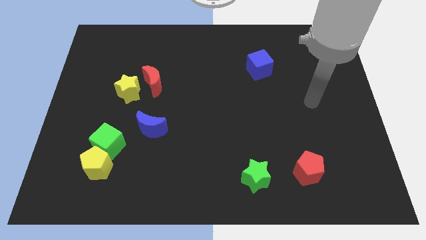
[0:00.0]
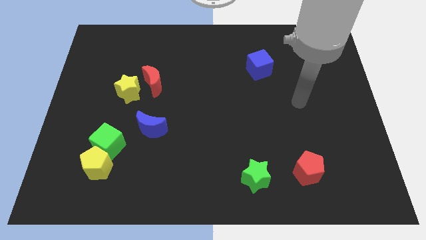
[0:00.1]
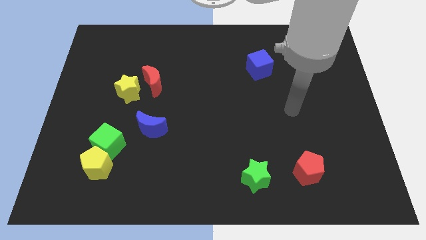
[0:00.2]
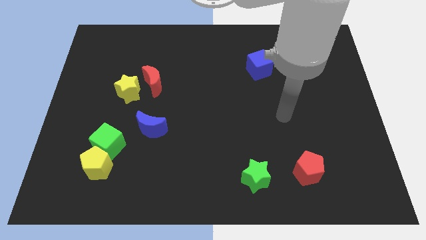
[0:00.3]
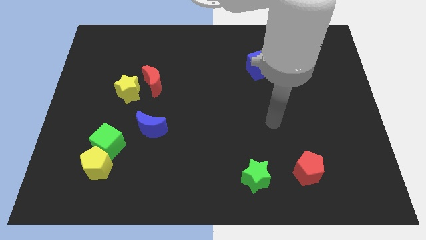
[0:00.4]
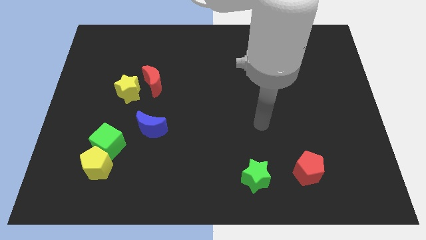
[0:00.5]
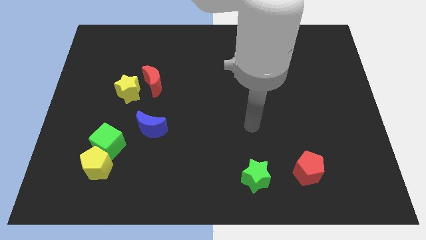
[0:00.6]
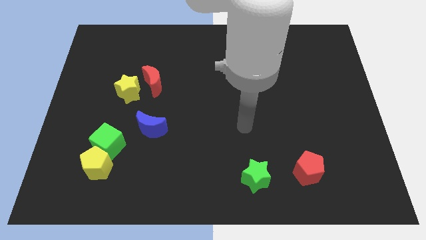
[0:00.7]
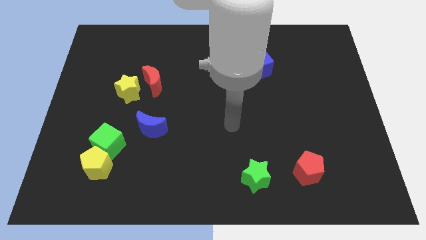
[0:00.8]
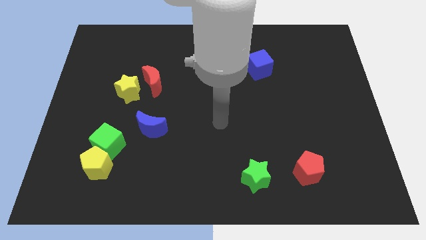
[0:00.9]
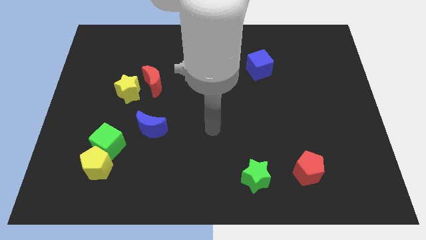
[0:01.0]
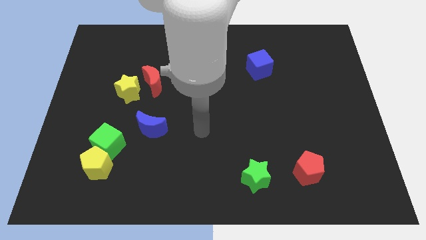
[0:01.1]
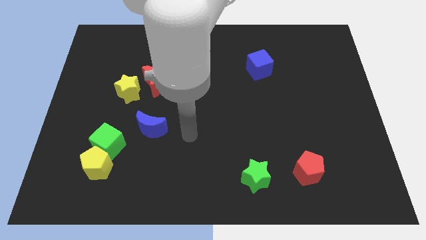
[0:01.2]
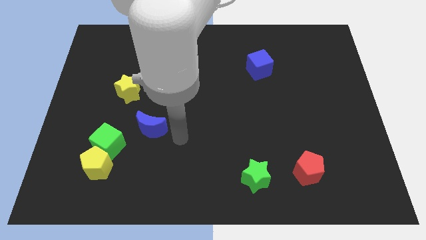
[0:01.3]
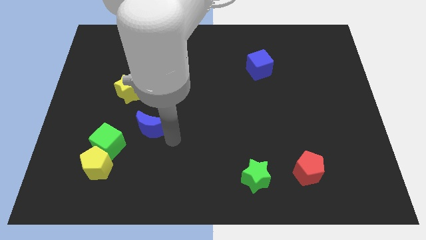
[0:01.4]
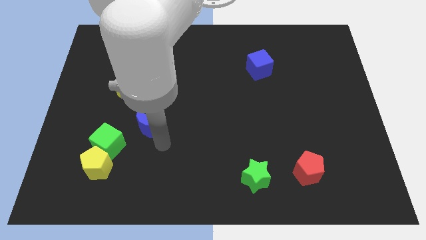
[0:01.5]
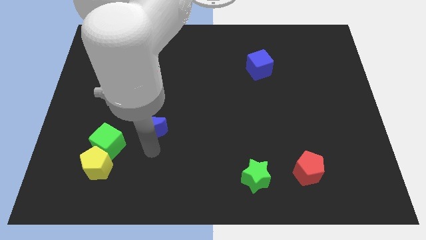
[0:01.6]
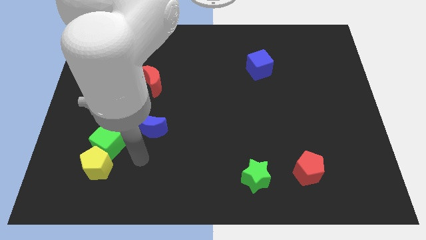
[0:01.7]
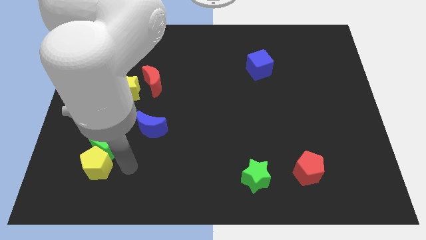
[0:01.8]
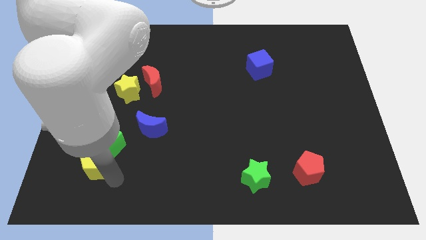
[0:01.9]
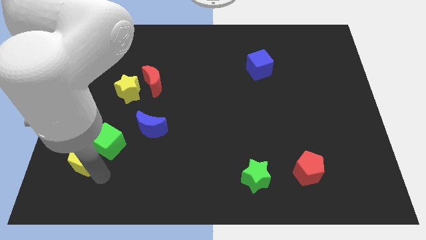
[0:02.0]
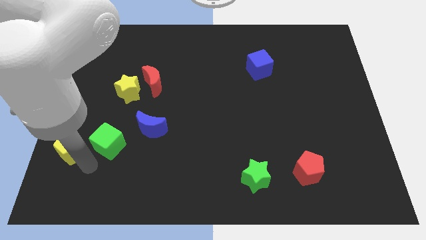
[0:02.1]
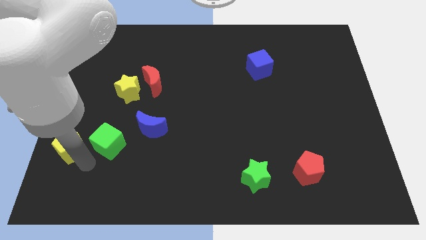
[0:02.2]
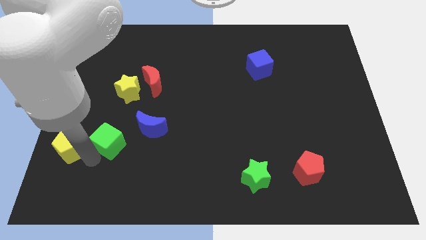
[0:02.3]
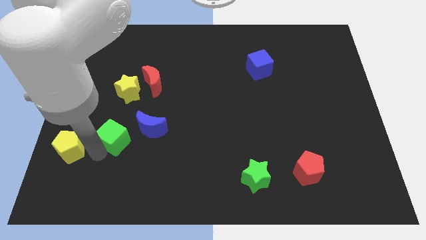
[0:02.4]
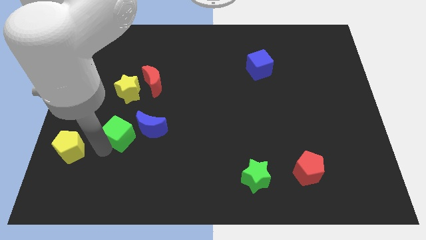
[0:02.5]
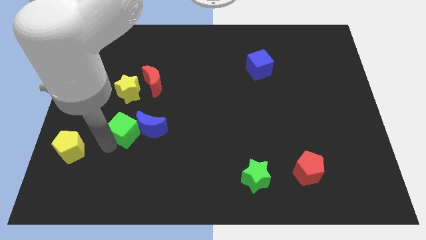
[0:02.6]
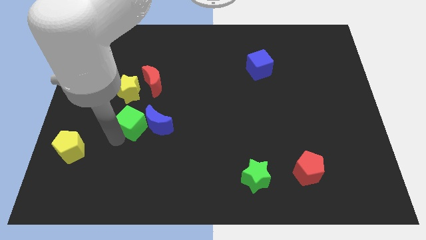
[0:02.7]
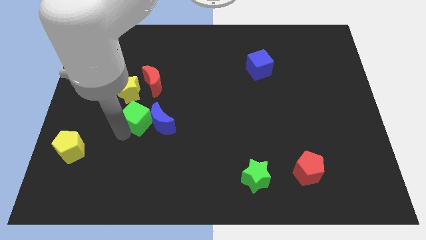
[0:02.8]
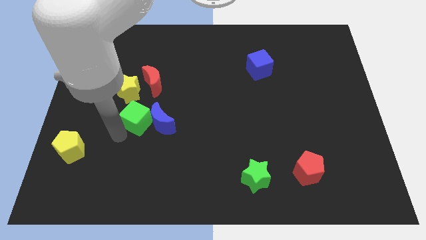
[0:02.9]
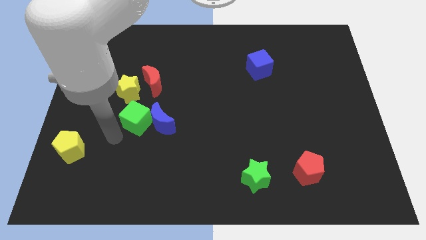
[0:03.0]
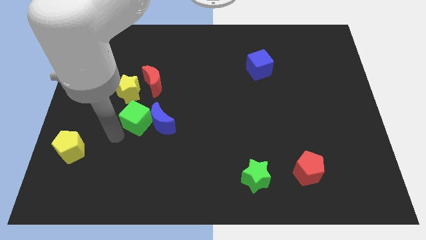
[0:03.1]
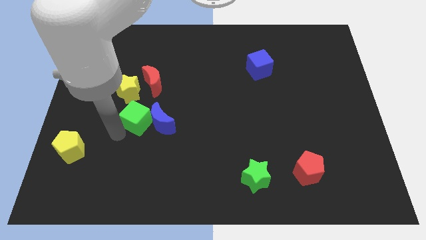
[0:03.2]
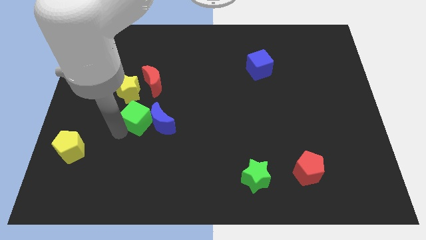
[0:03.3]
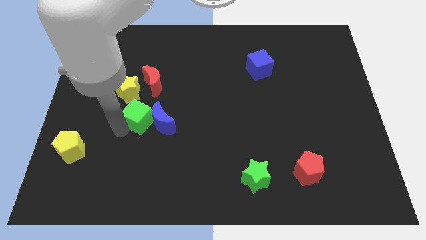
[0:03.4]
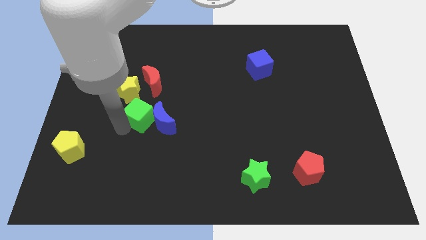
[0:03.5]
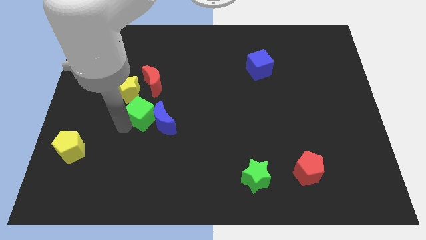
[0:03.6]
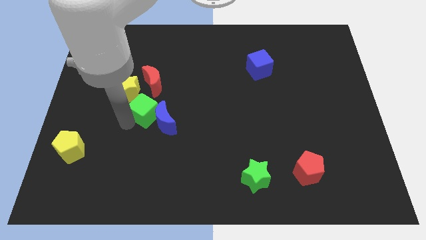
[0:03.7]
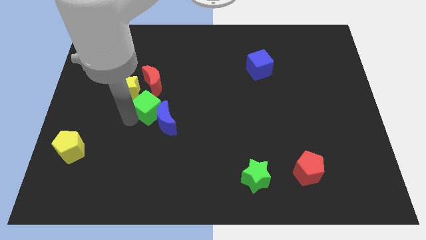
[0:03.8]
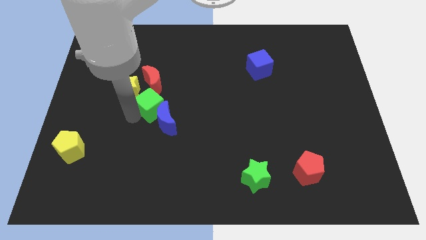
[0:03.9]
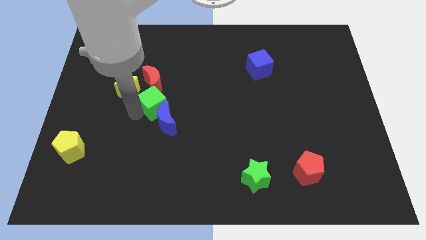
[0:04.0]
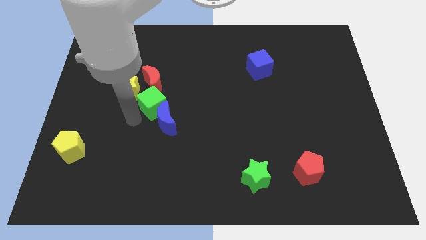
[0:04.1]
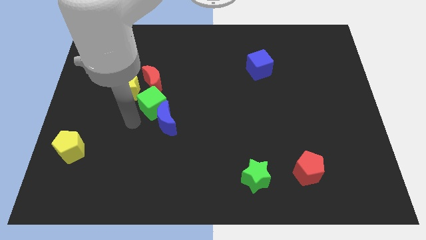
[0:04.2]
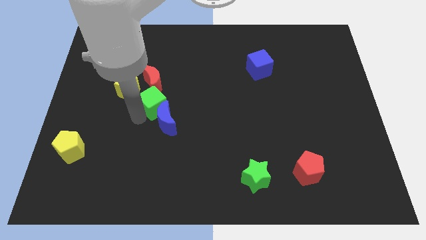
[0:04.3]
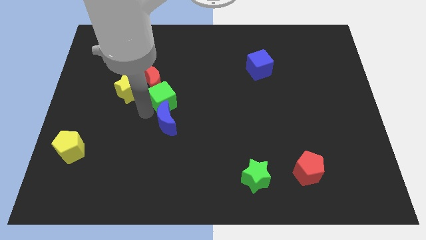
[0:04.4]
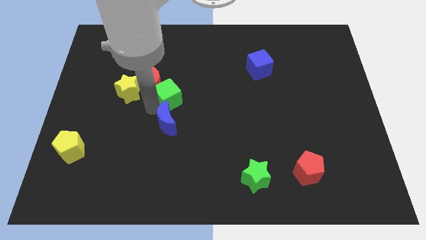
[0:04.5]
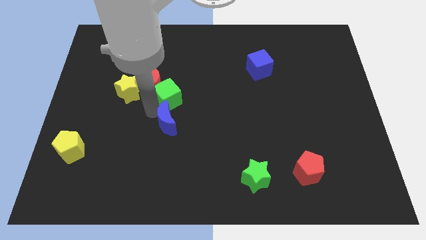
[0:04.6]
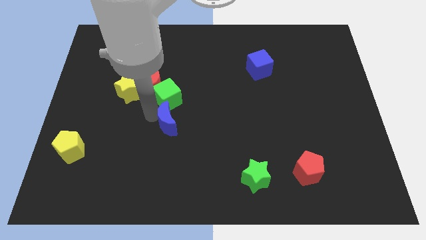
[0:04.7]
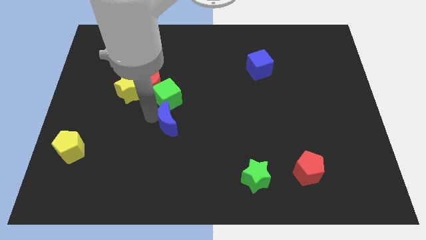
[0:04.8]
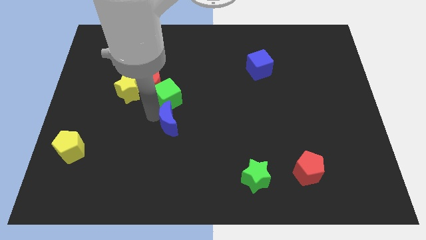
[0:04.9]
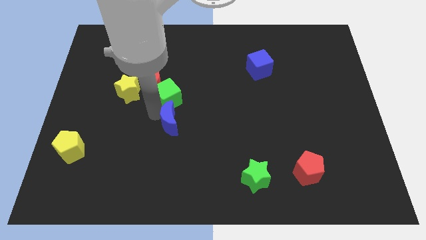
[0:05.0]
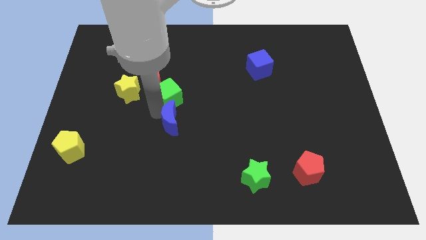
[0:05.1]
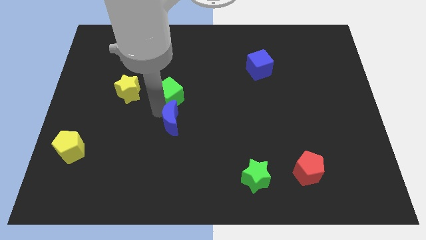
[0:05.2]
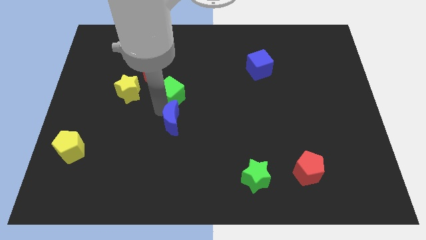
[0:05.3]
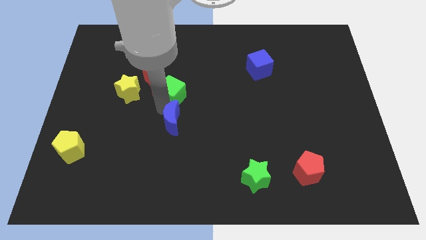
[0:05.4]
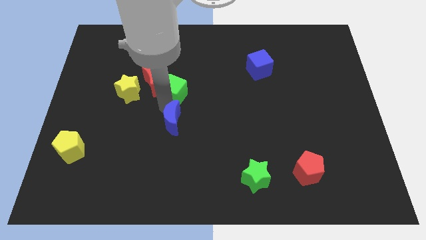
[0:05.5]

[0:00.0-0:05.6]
slide the green cube up and right diagonally

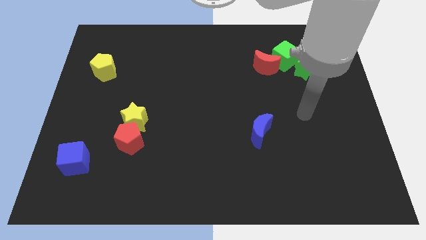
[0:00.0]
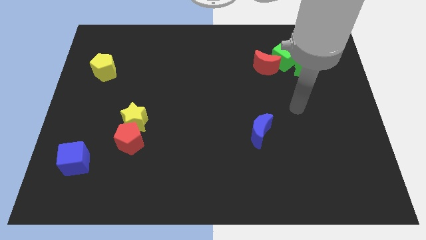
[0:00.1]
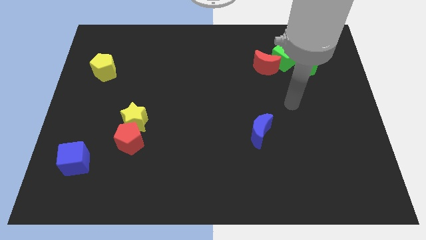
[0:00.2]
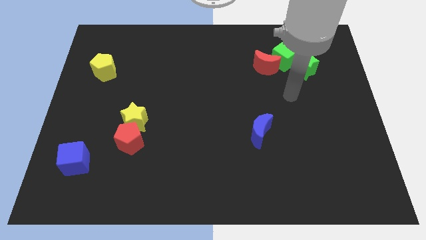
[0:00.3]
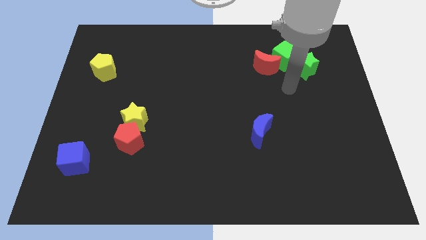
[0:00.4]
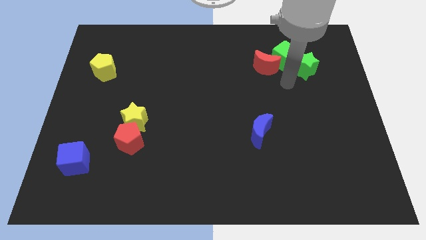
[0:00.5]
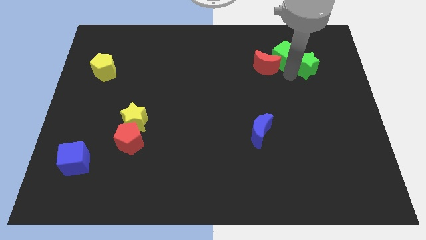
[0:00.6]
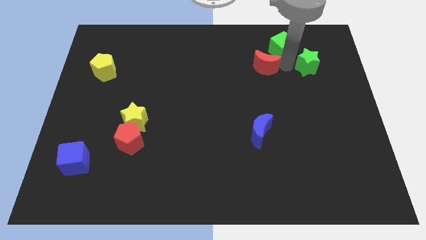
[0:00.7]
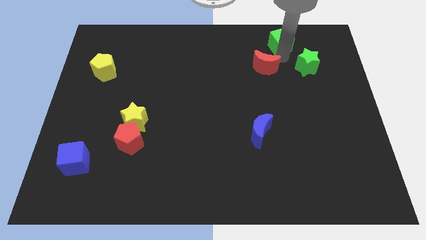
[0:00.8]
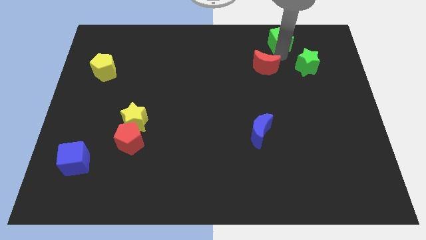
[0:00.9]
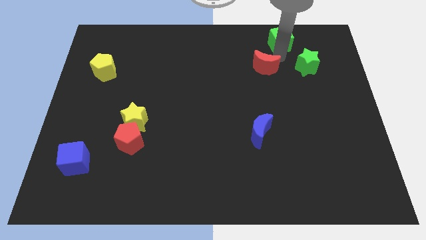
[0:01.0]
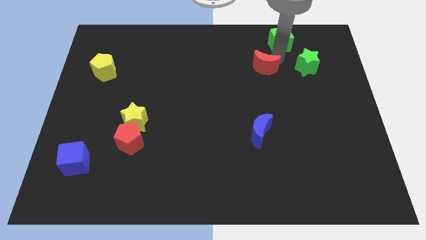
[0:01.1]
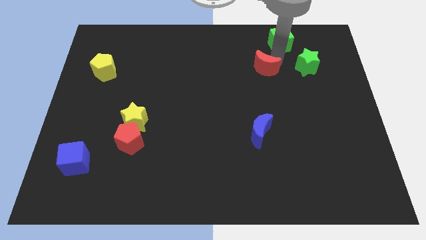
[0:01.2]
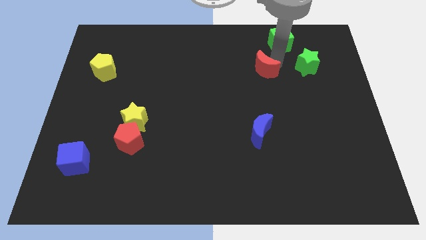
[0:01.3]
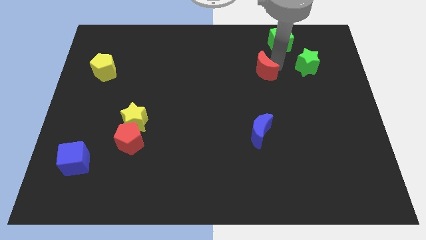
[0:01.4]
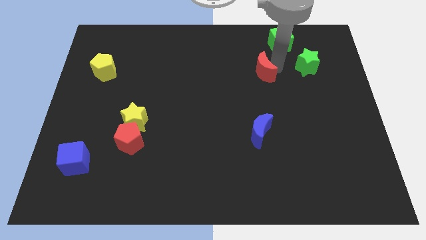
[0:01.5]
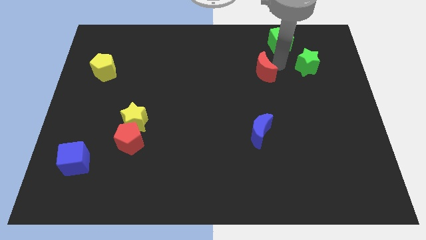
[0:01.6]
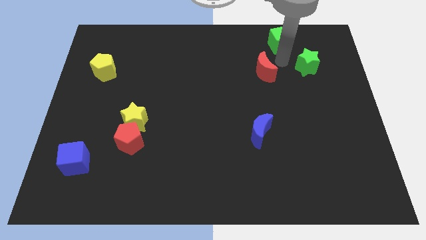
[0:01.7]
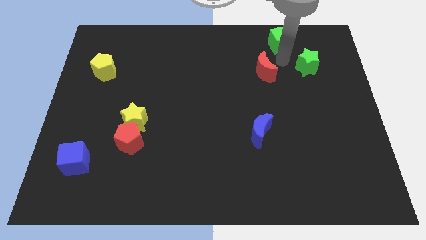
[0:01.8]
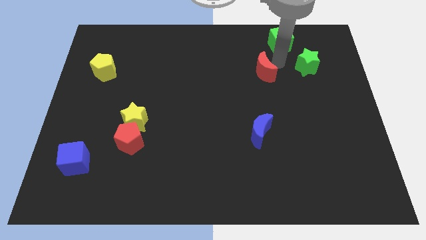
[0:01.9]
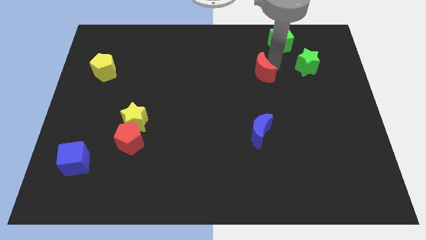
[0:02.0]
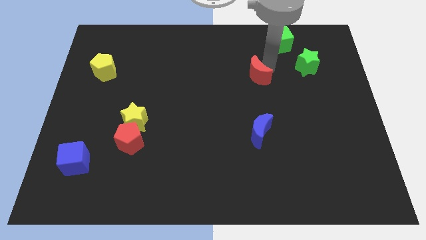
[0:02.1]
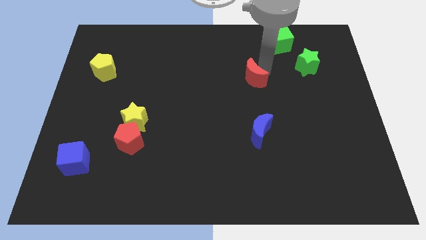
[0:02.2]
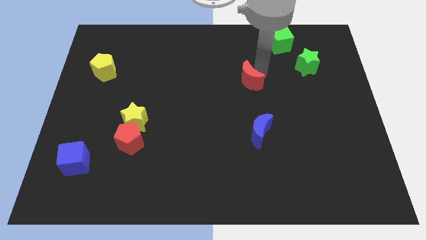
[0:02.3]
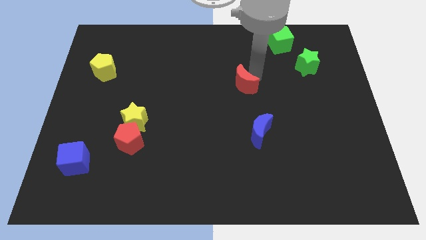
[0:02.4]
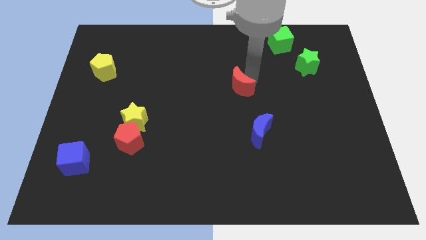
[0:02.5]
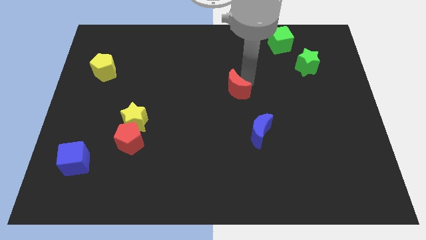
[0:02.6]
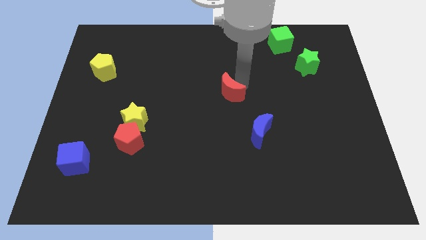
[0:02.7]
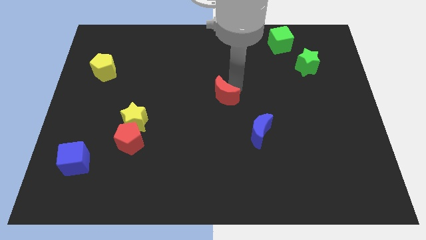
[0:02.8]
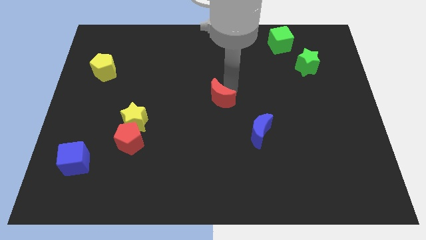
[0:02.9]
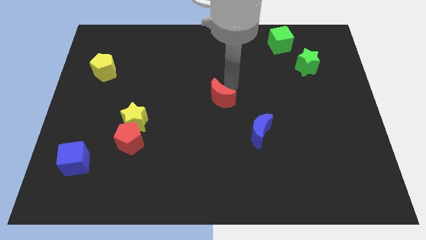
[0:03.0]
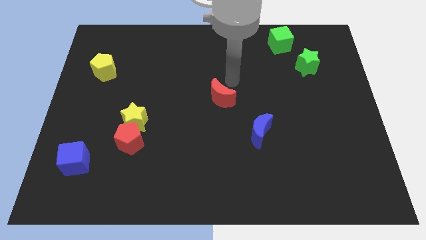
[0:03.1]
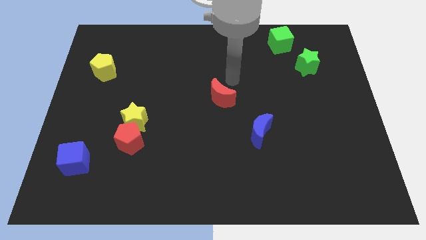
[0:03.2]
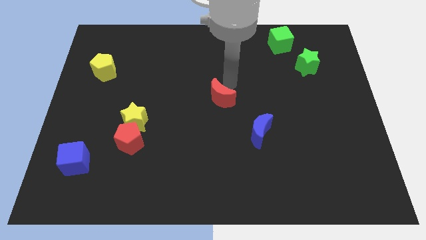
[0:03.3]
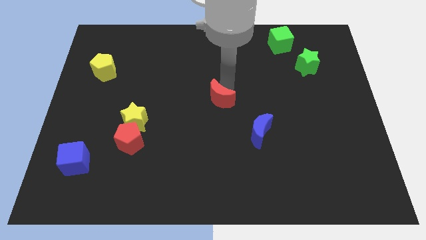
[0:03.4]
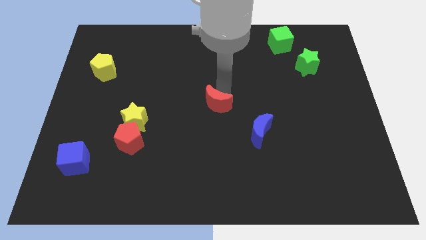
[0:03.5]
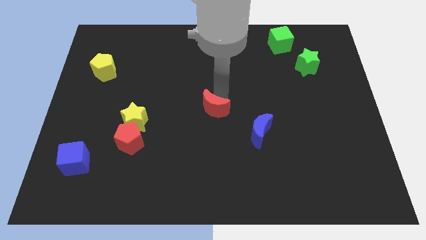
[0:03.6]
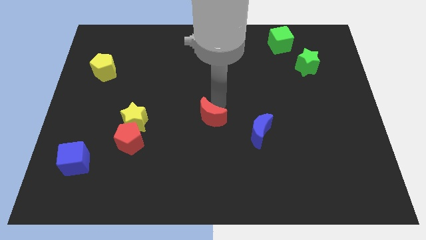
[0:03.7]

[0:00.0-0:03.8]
slide the red moon diagonally downwards and to the left
